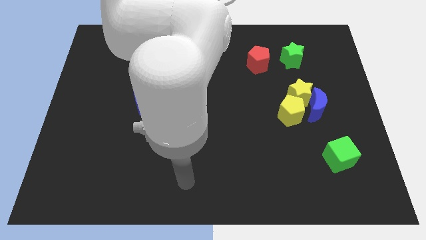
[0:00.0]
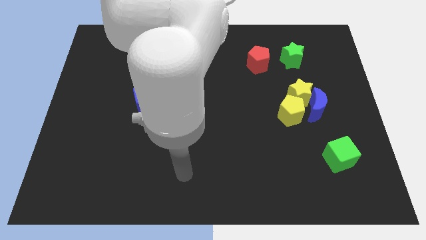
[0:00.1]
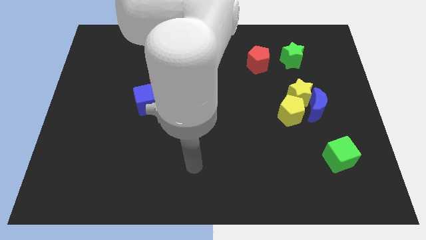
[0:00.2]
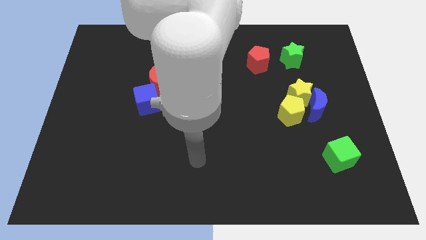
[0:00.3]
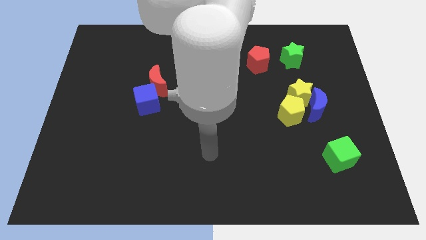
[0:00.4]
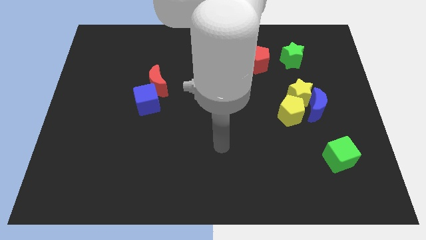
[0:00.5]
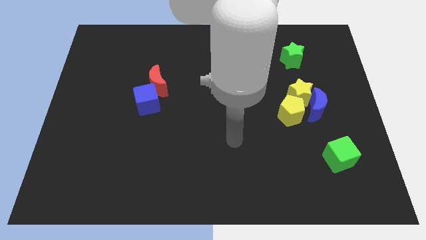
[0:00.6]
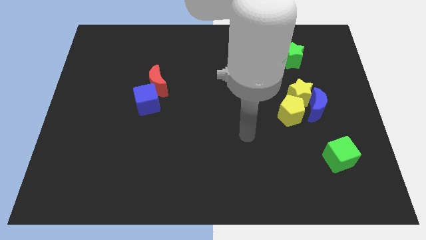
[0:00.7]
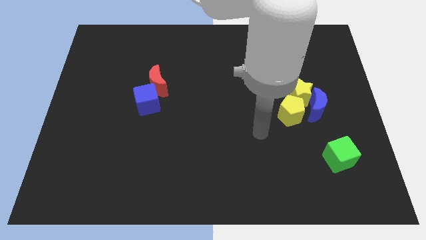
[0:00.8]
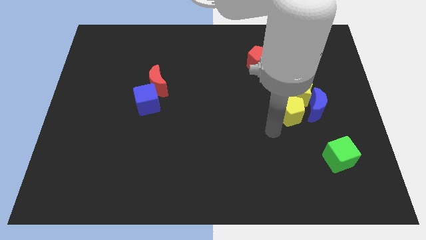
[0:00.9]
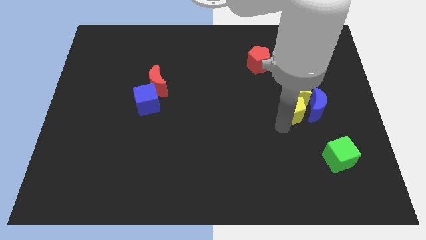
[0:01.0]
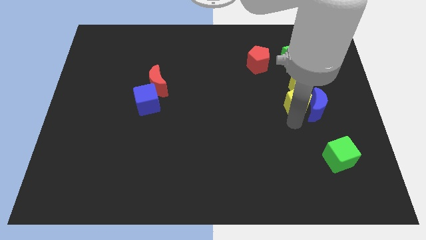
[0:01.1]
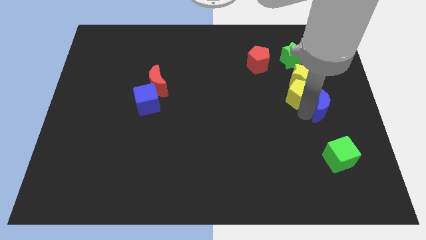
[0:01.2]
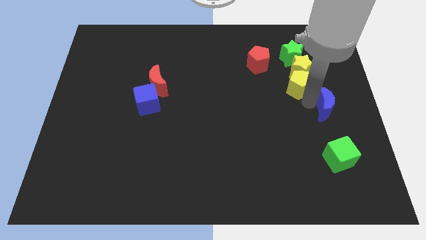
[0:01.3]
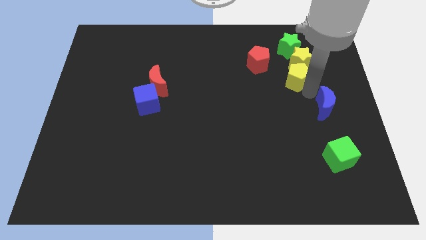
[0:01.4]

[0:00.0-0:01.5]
pull the yellow star apart from the blue moon and yellow pentagon

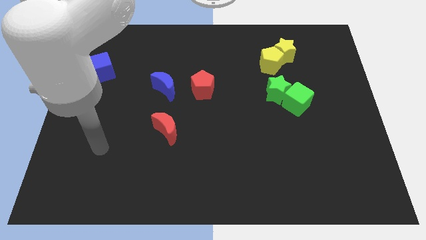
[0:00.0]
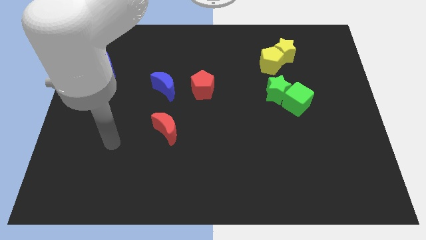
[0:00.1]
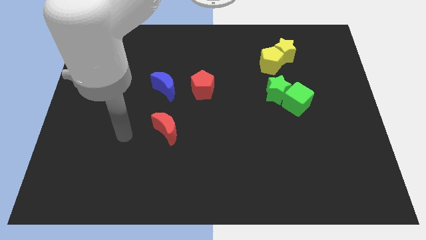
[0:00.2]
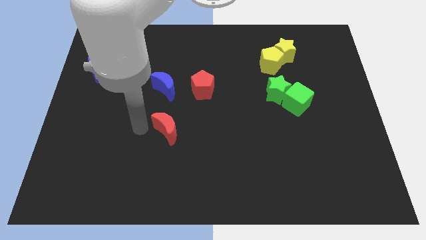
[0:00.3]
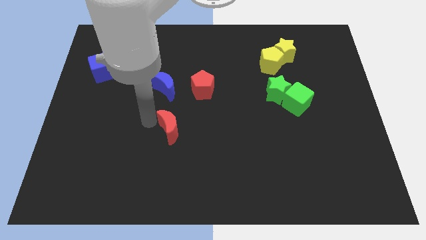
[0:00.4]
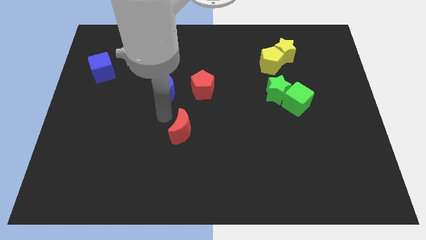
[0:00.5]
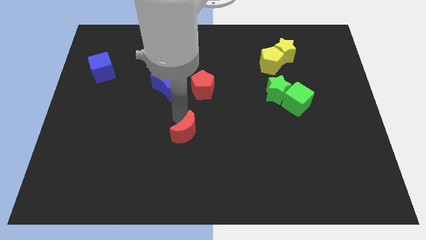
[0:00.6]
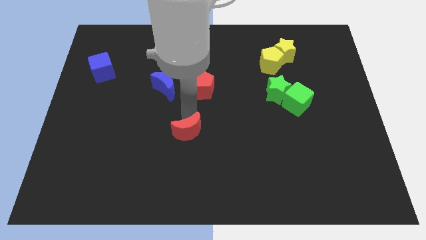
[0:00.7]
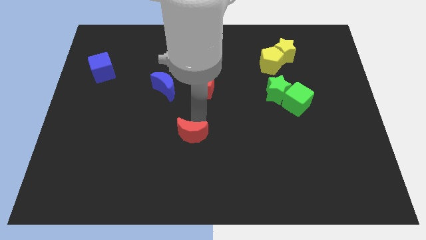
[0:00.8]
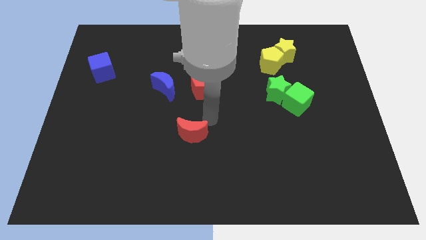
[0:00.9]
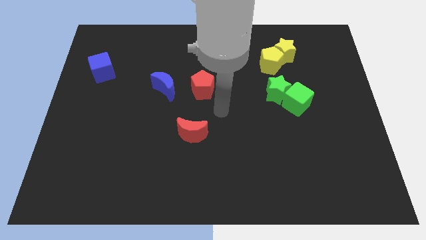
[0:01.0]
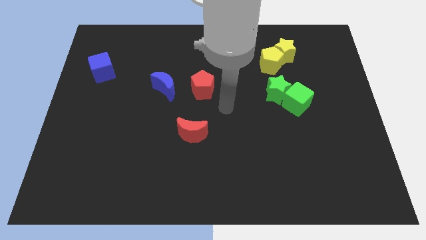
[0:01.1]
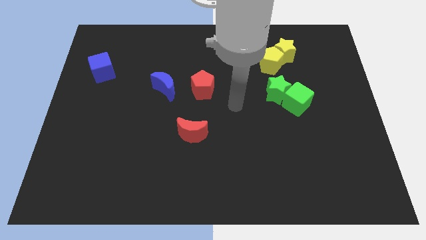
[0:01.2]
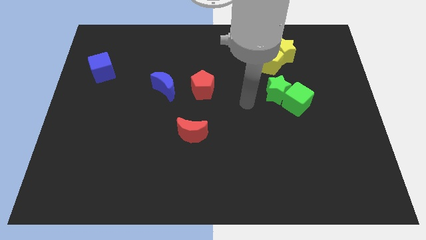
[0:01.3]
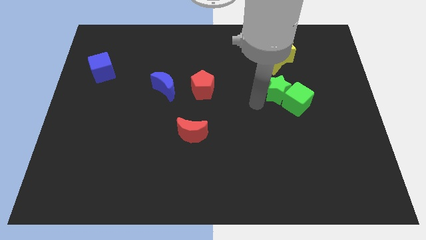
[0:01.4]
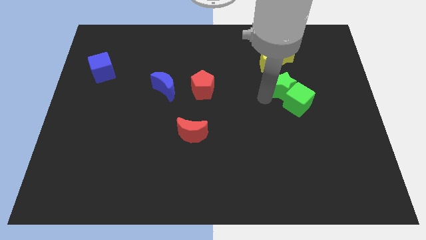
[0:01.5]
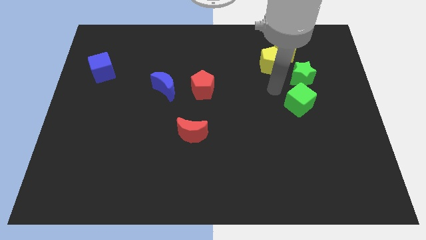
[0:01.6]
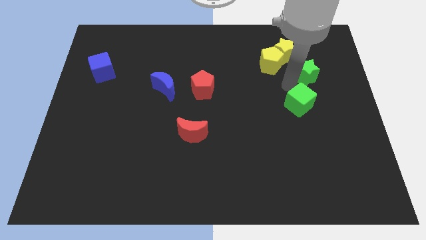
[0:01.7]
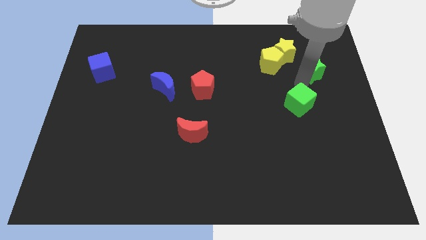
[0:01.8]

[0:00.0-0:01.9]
pull the green cube apart from the green star

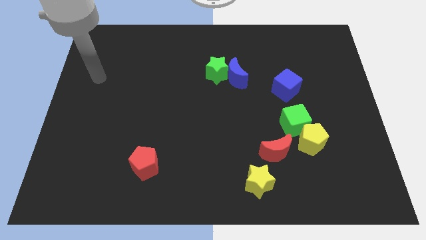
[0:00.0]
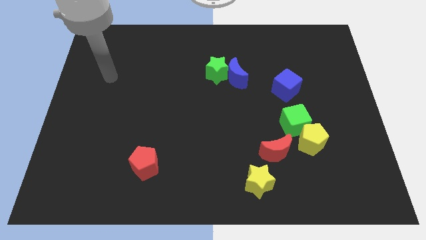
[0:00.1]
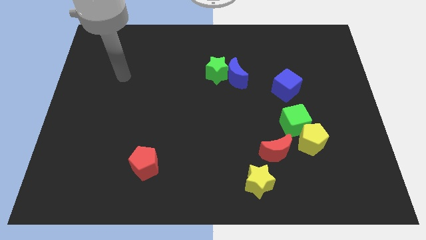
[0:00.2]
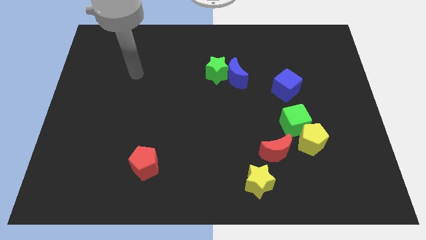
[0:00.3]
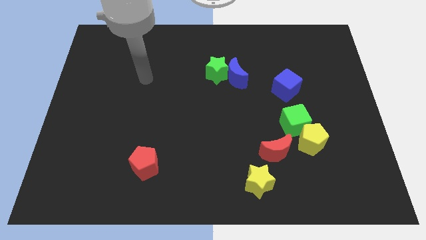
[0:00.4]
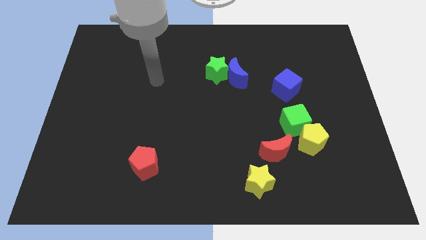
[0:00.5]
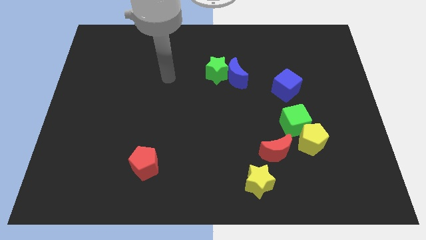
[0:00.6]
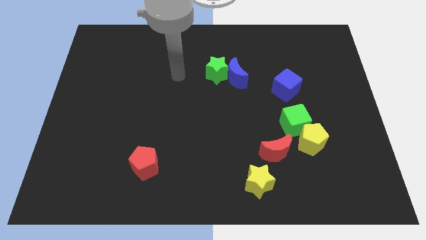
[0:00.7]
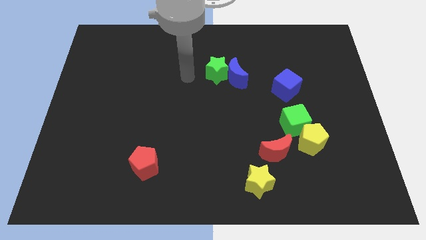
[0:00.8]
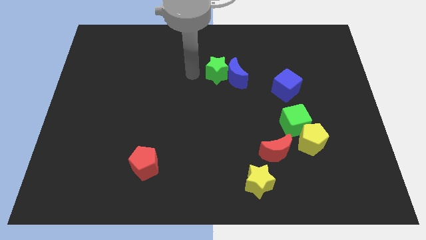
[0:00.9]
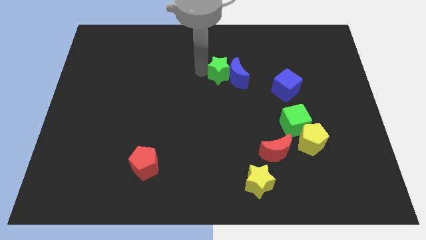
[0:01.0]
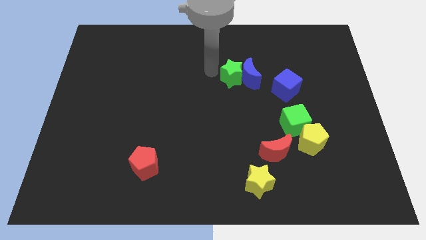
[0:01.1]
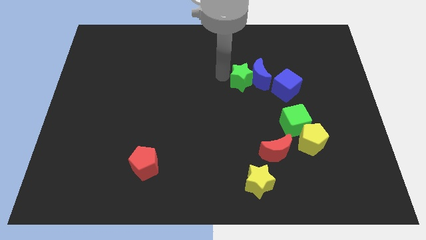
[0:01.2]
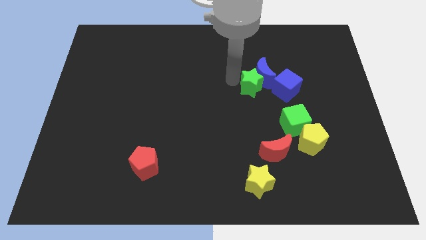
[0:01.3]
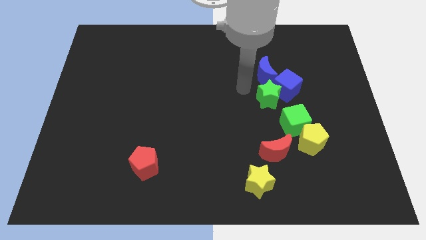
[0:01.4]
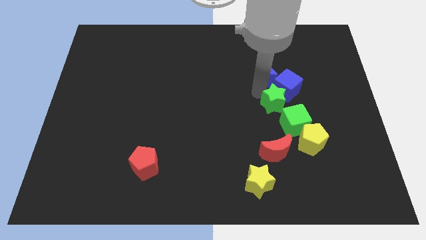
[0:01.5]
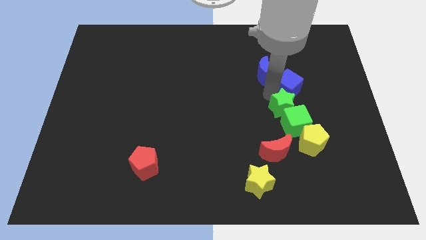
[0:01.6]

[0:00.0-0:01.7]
pull the blue moon apart from the green star

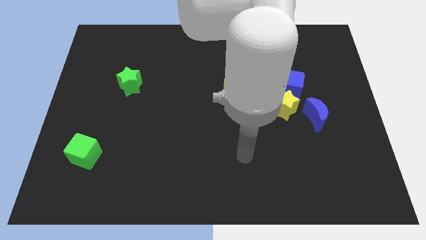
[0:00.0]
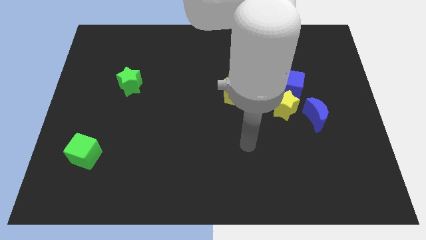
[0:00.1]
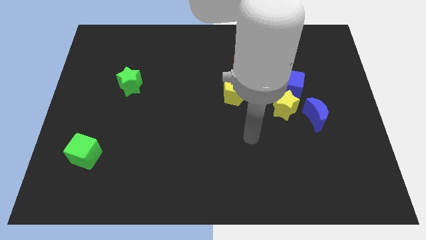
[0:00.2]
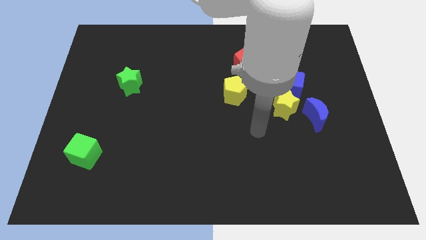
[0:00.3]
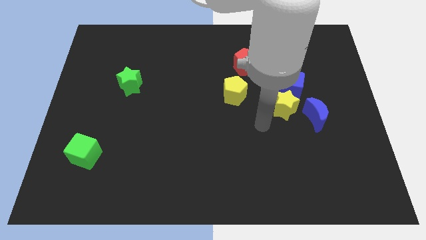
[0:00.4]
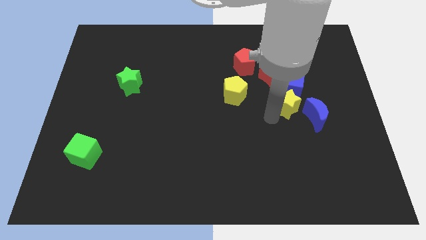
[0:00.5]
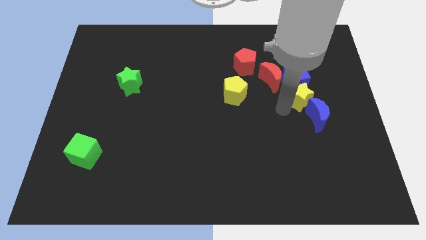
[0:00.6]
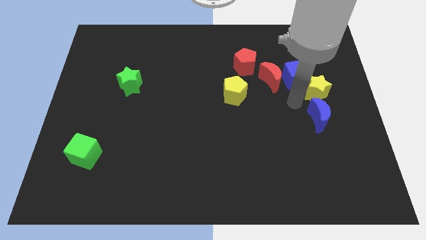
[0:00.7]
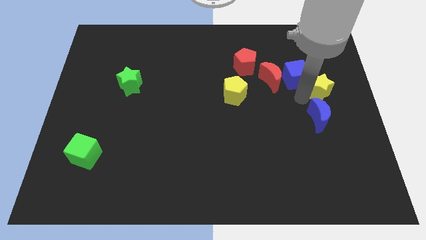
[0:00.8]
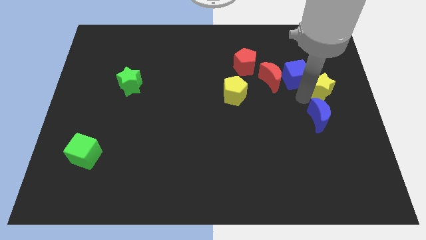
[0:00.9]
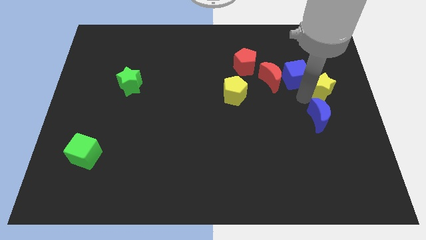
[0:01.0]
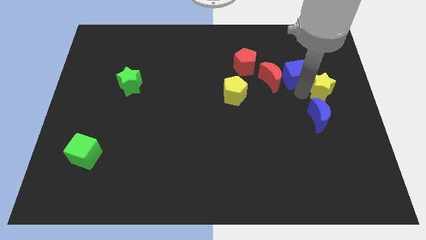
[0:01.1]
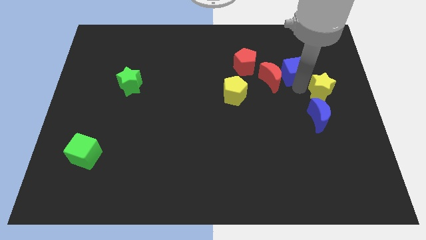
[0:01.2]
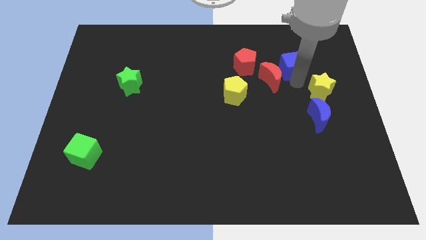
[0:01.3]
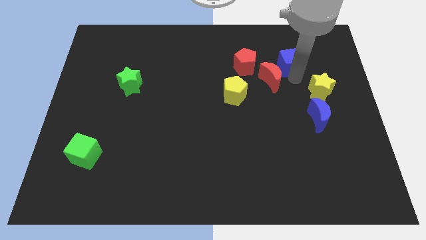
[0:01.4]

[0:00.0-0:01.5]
separate the blue cube from the red moon, yellow star, and blue moon

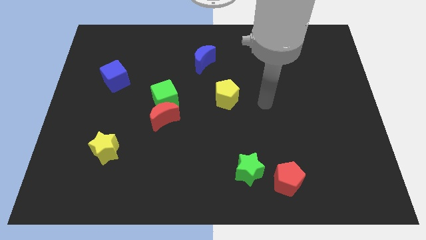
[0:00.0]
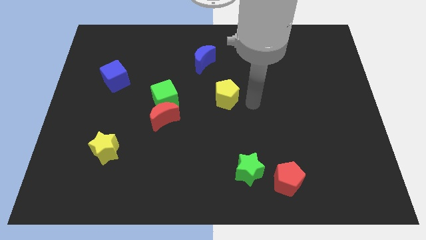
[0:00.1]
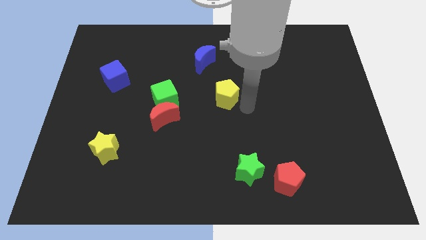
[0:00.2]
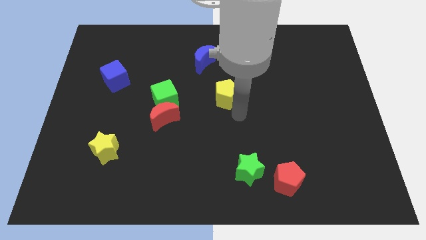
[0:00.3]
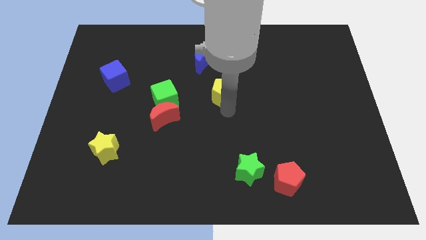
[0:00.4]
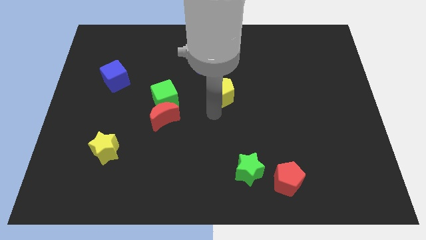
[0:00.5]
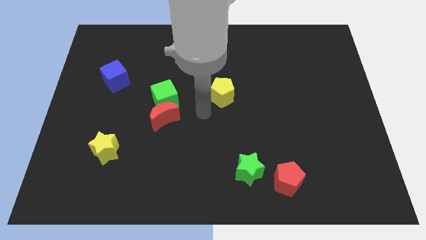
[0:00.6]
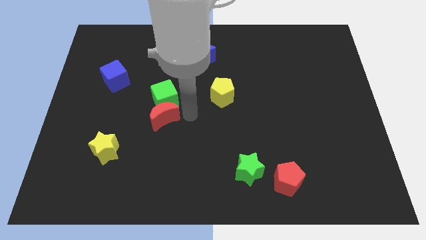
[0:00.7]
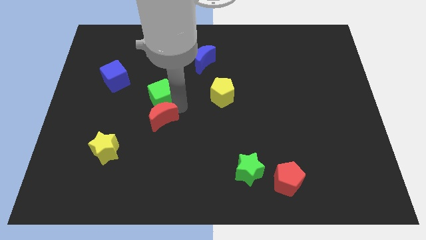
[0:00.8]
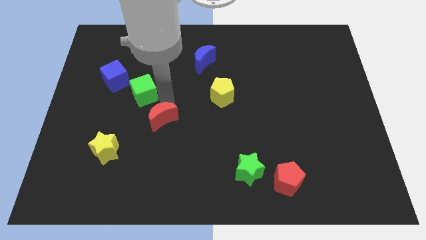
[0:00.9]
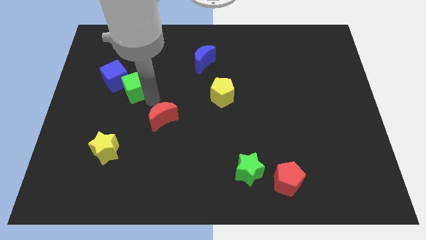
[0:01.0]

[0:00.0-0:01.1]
pull the red moon apart from the green cube

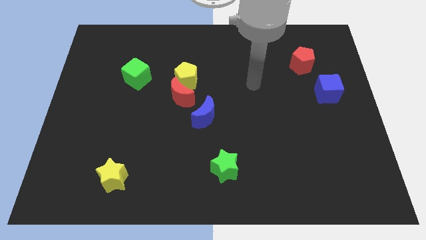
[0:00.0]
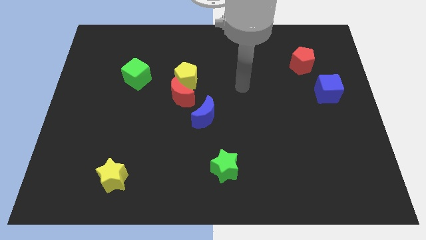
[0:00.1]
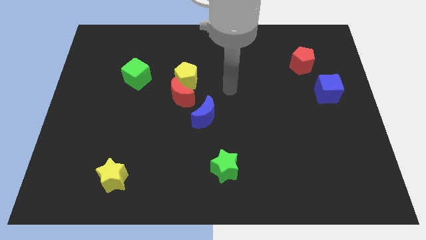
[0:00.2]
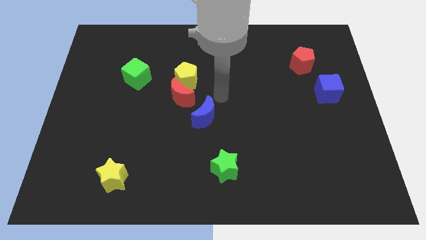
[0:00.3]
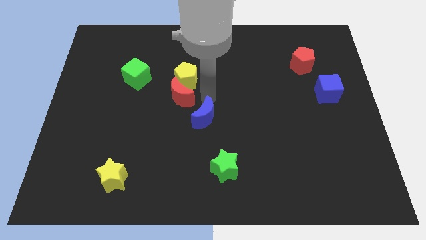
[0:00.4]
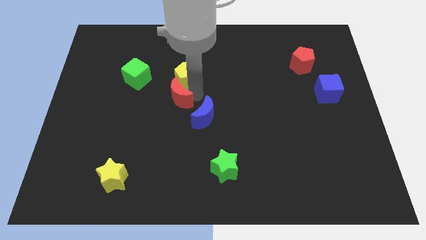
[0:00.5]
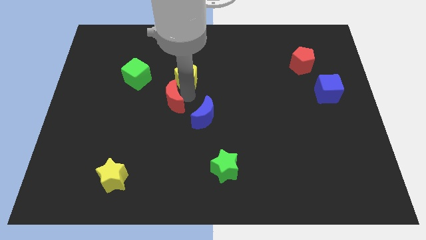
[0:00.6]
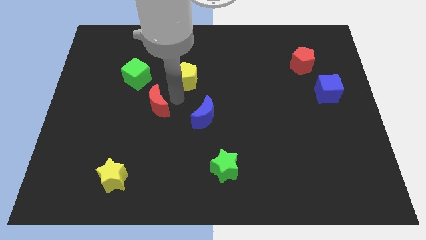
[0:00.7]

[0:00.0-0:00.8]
pull the yellow pentagon apart from the red moon

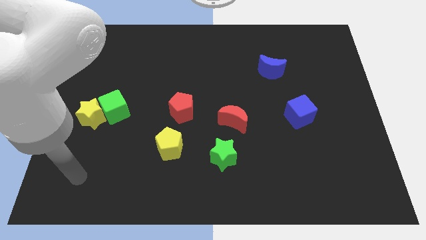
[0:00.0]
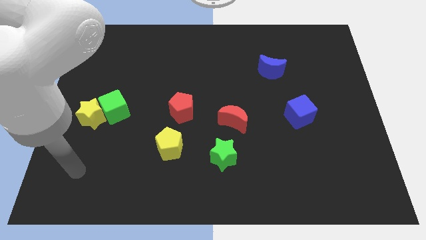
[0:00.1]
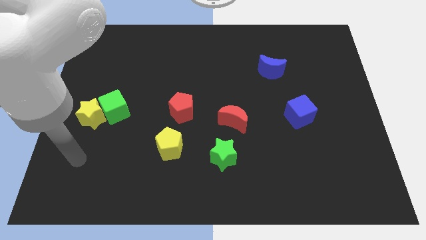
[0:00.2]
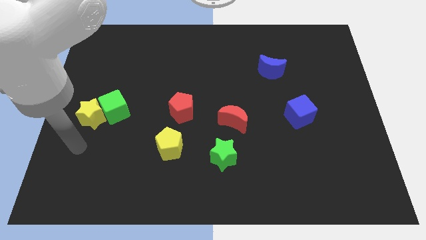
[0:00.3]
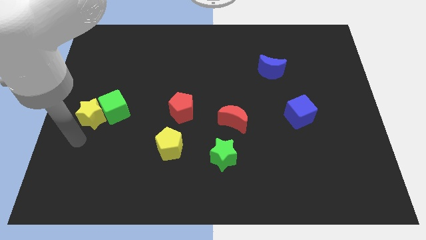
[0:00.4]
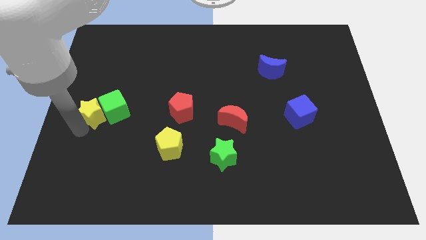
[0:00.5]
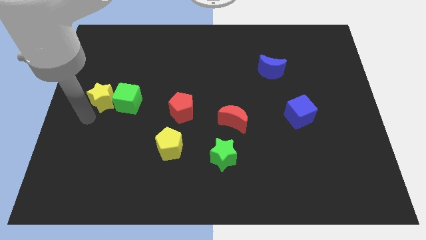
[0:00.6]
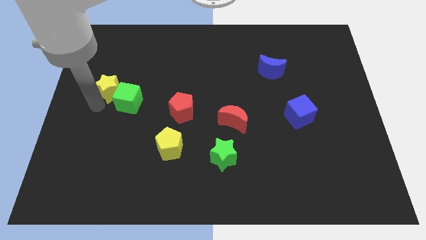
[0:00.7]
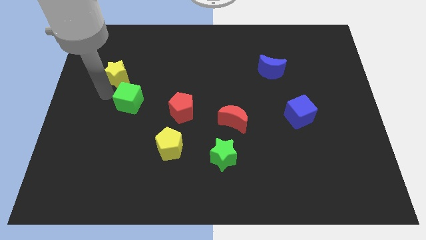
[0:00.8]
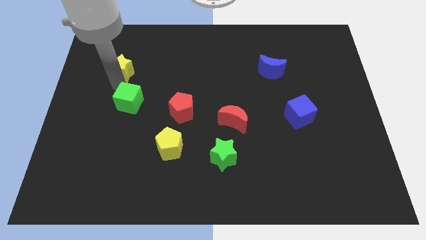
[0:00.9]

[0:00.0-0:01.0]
separate the green cube from the yellow star
